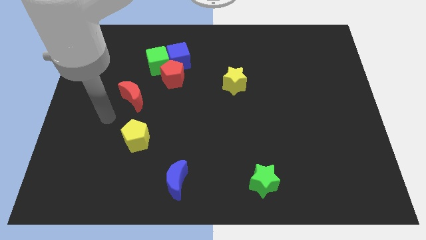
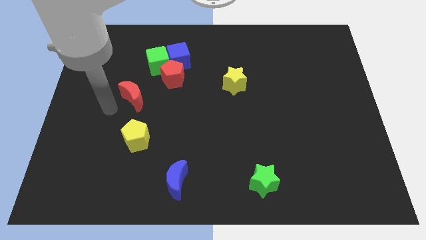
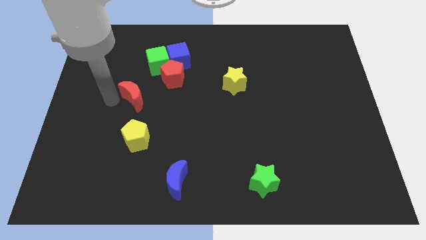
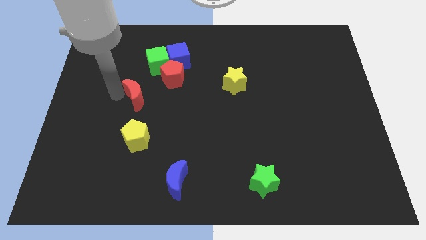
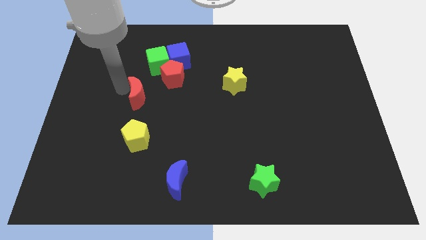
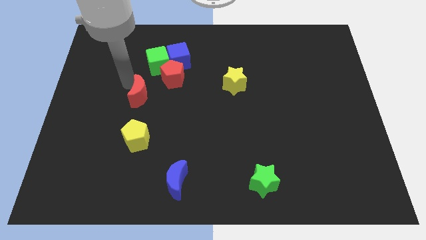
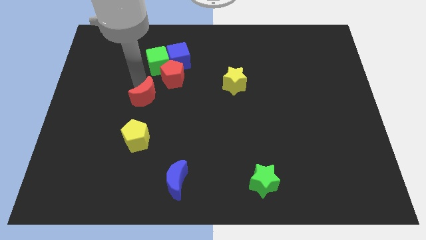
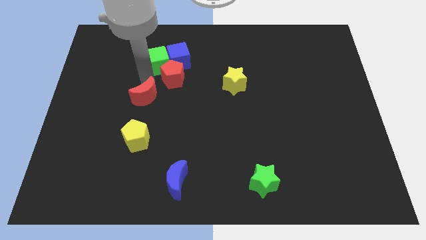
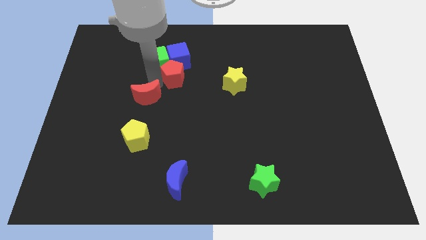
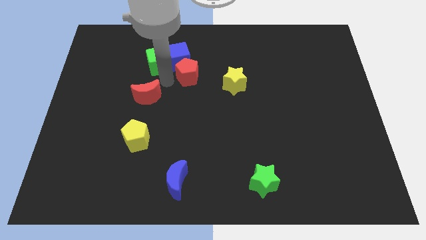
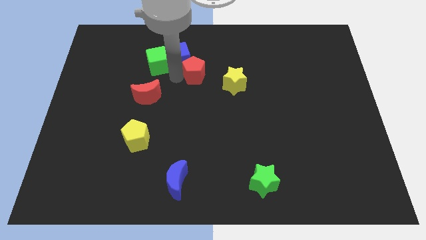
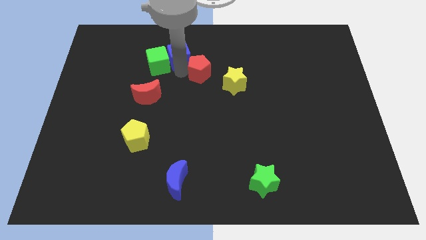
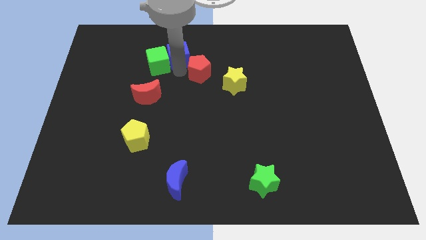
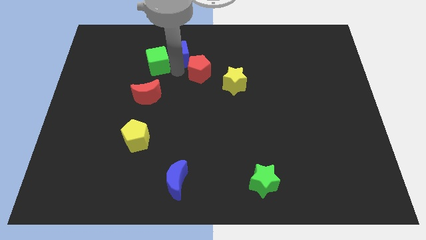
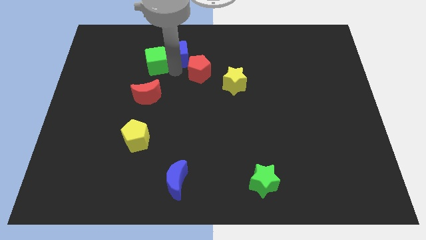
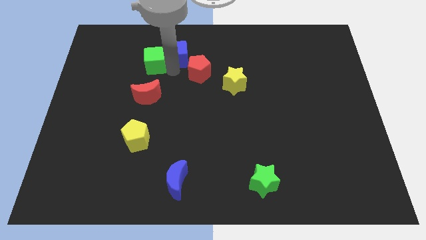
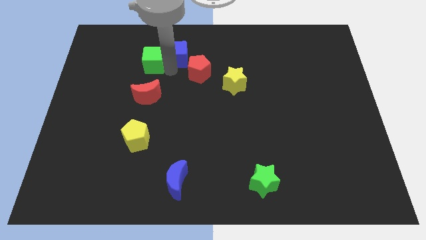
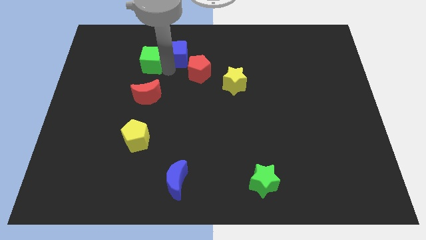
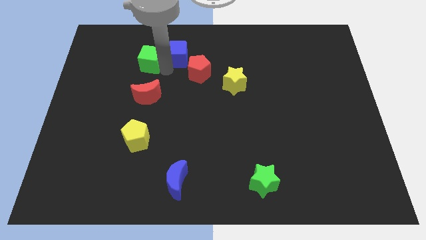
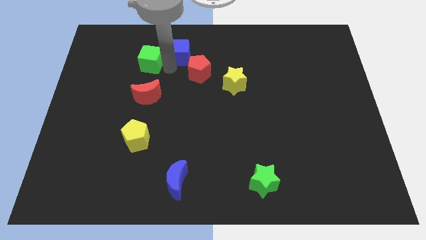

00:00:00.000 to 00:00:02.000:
pull the green cube apart from the blue cube and red pentagon

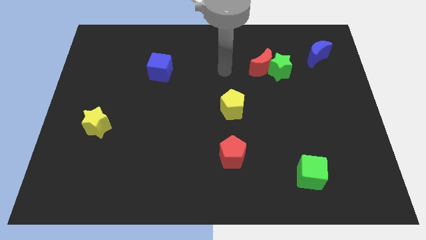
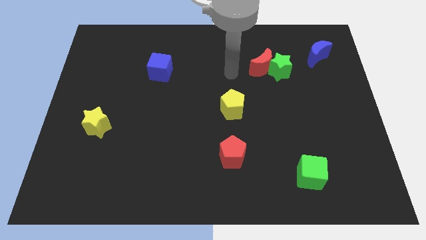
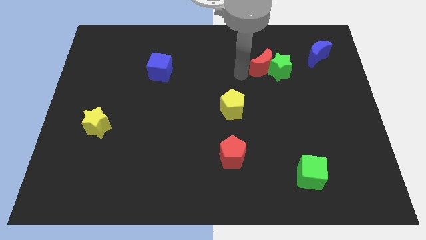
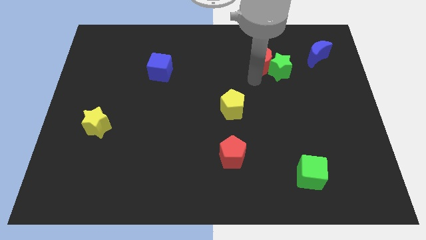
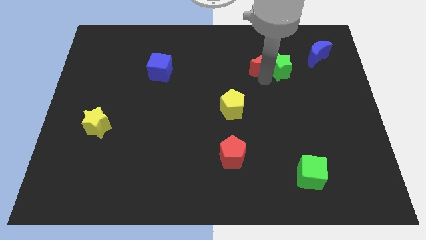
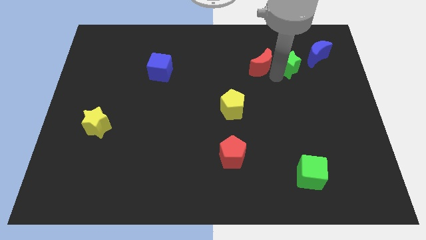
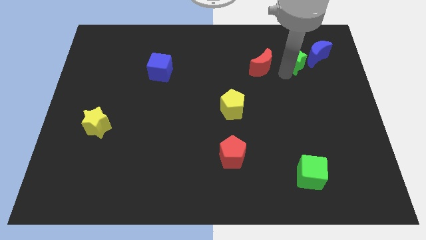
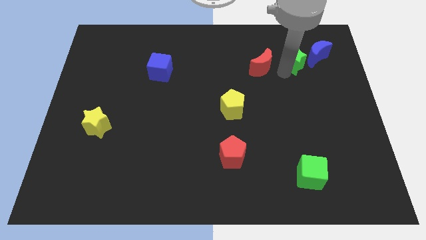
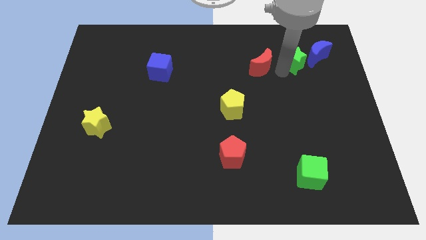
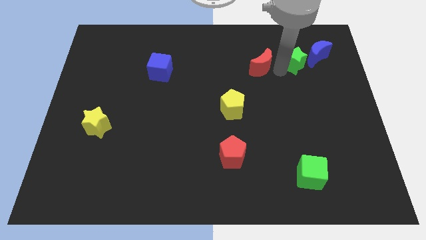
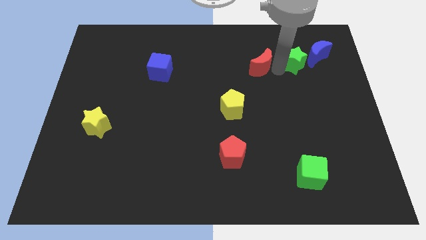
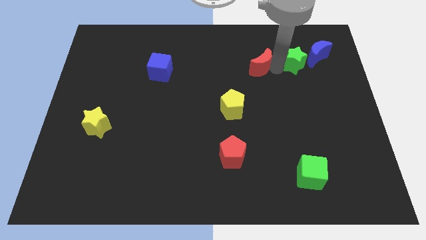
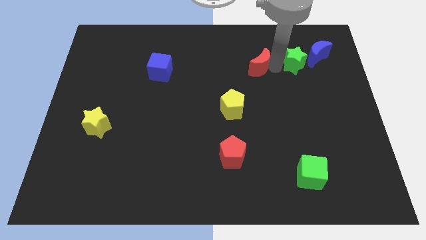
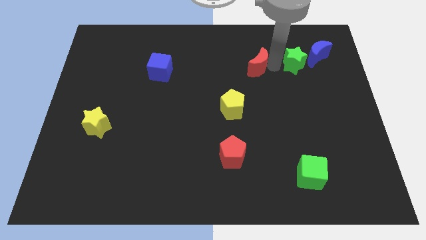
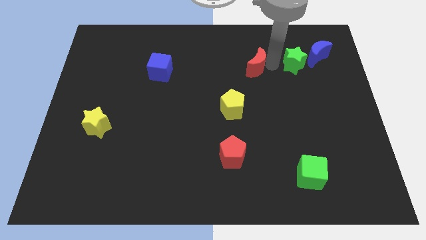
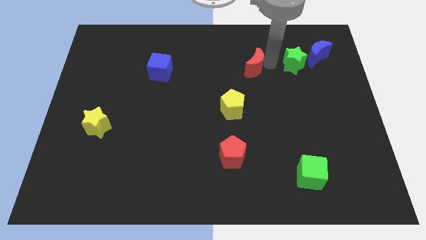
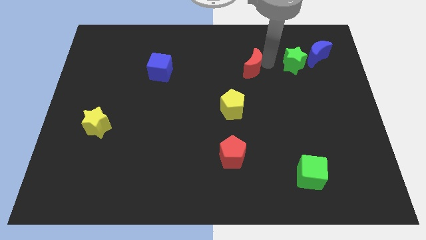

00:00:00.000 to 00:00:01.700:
move the red moon away from the green star

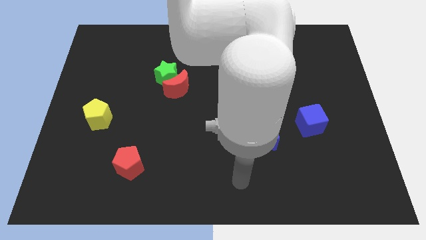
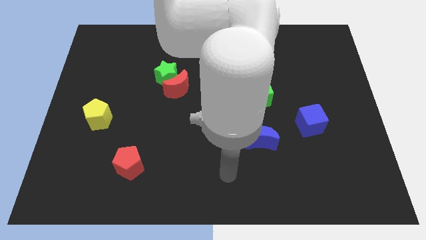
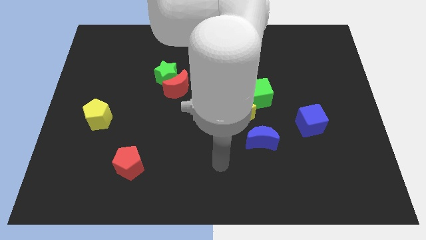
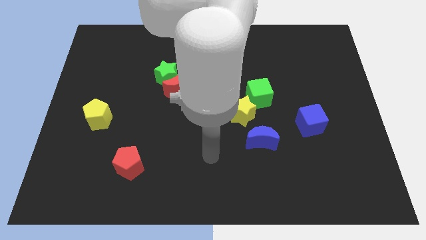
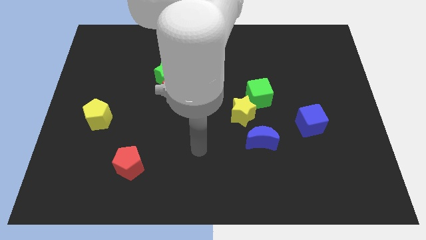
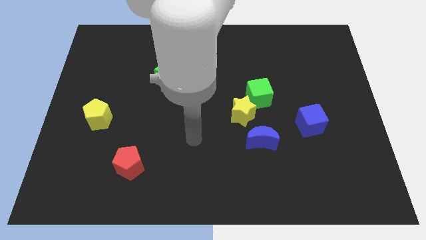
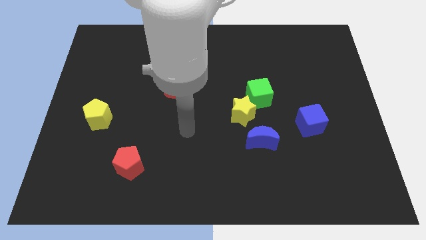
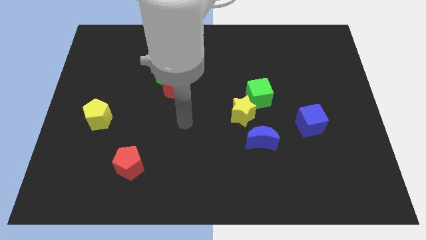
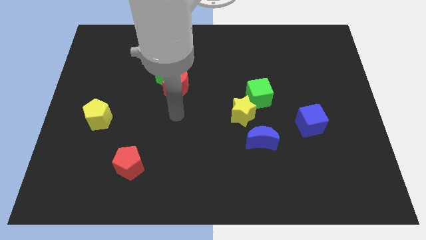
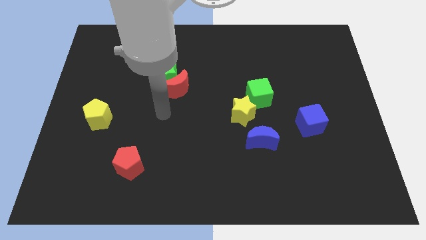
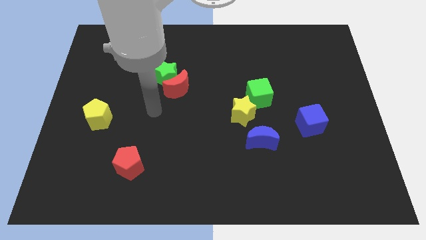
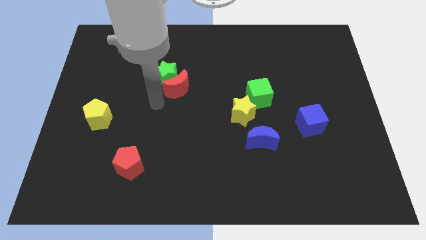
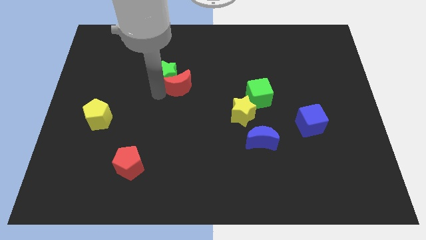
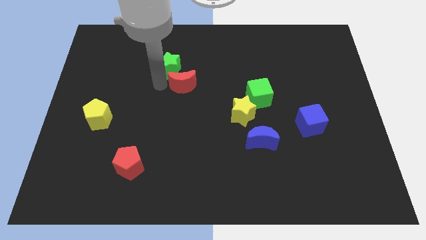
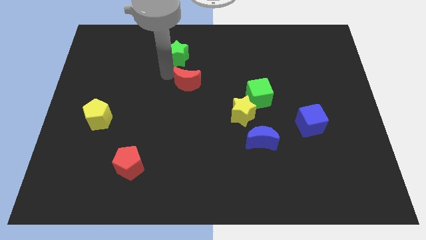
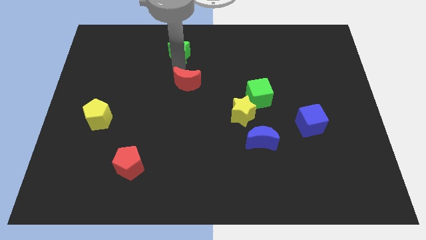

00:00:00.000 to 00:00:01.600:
pull the red moon apart from the green star

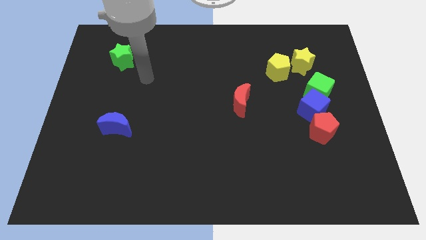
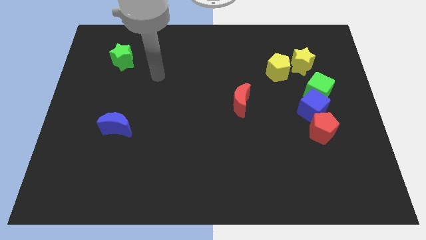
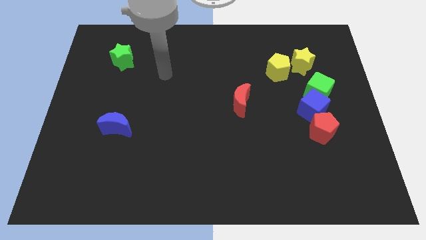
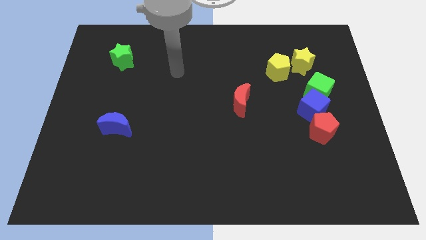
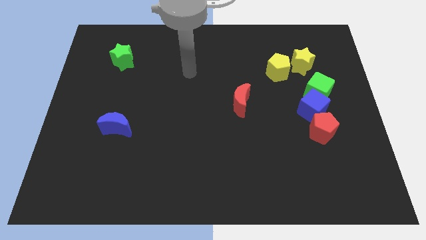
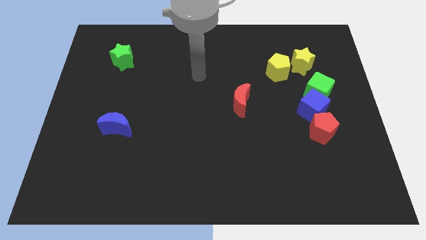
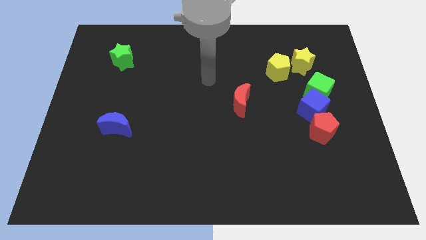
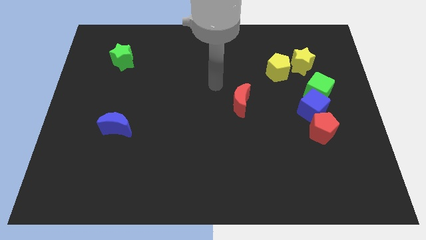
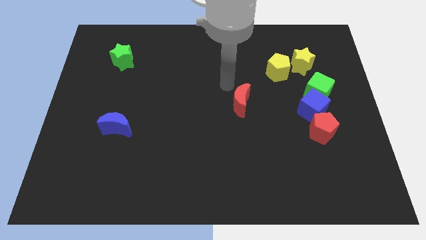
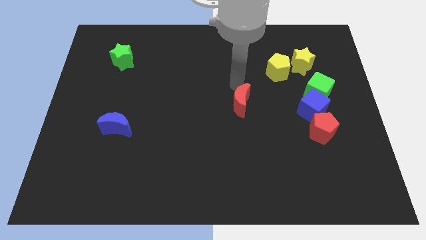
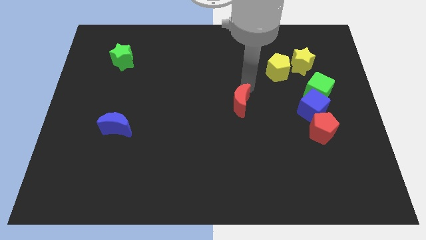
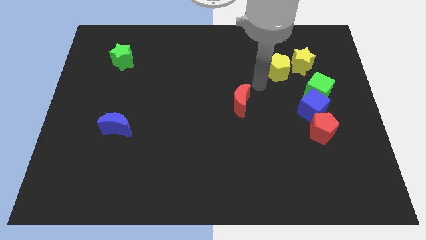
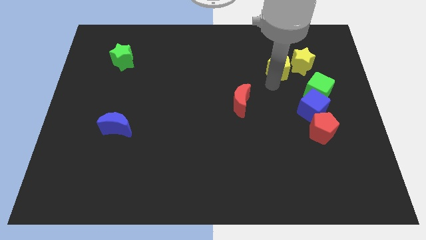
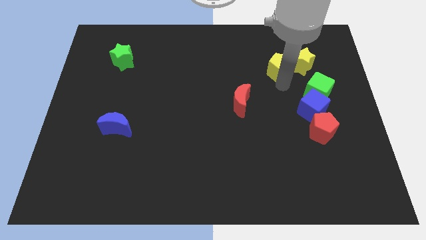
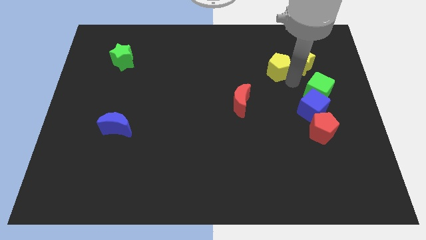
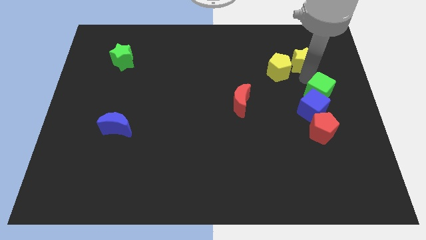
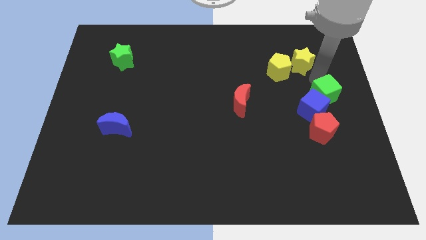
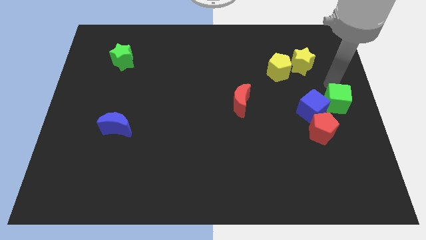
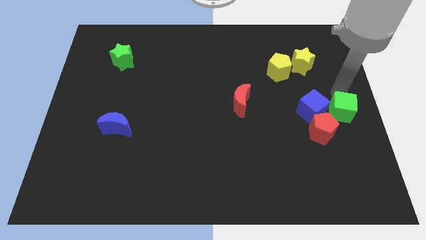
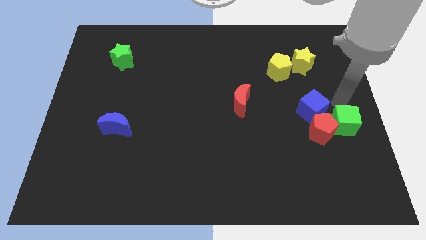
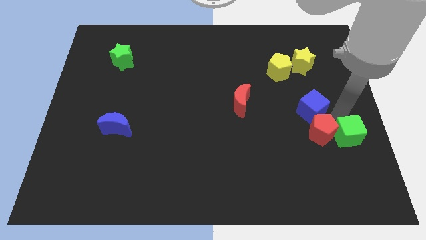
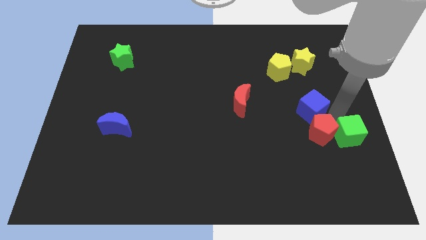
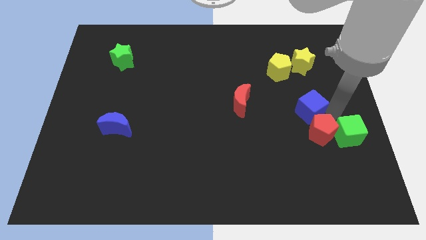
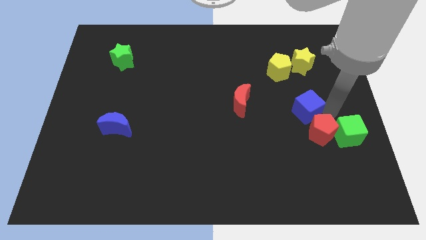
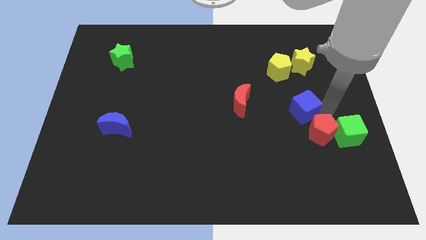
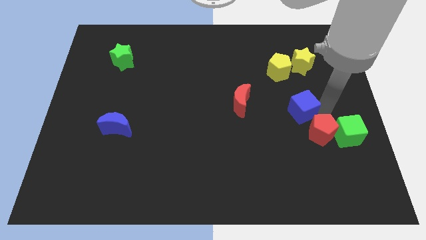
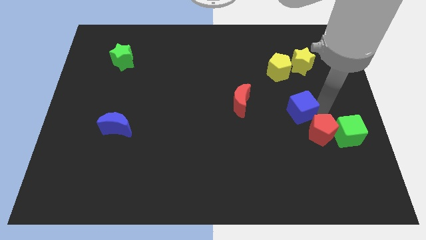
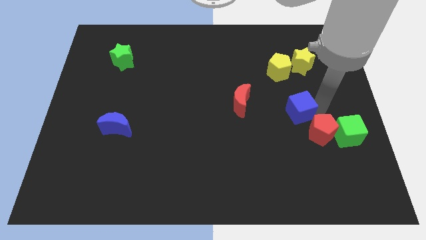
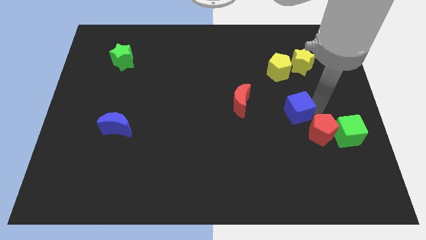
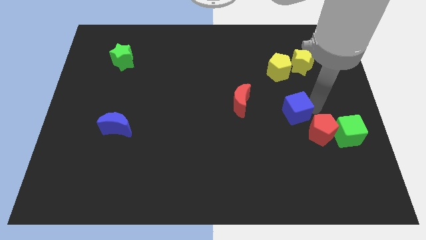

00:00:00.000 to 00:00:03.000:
pull the blue cube apart from the green cube and red pentagon

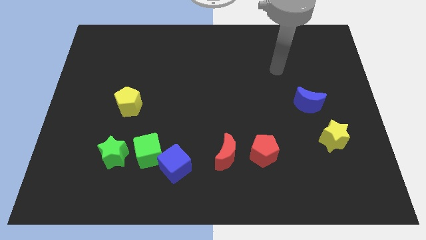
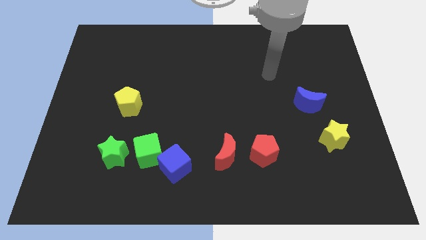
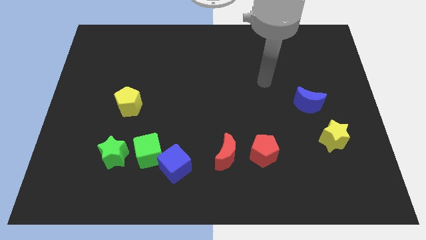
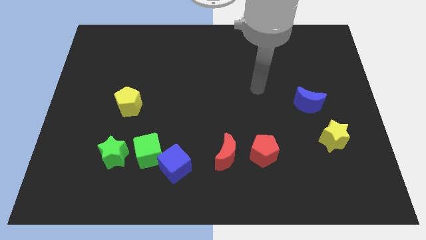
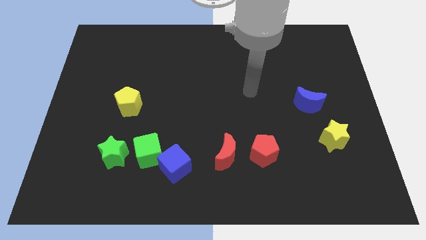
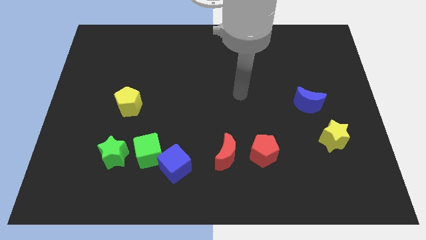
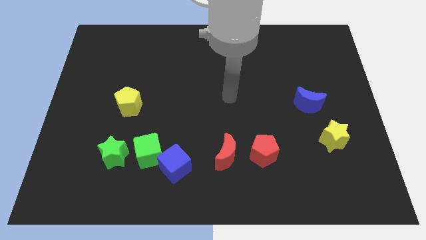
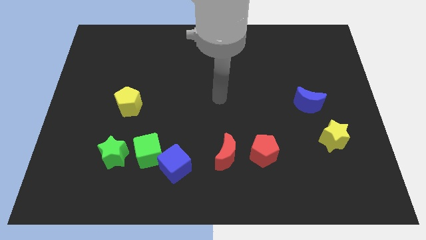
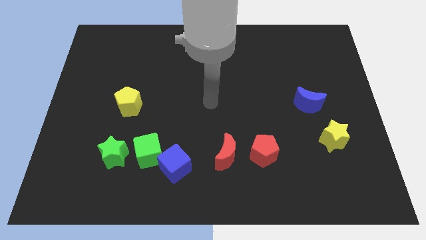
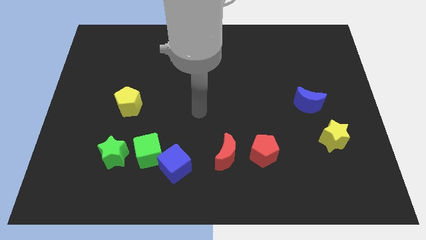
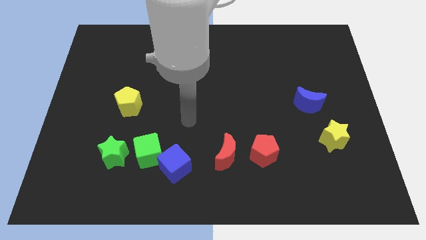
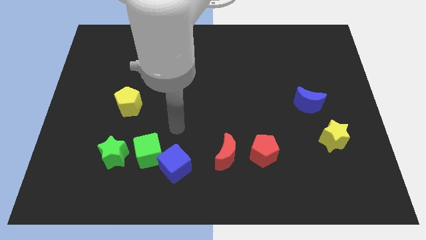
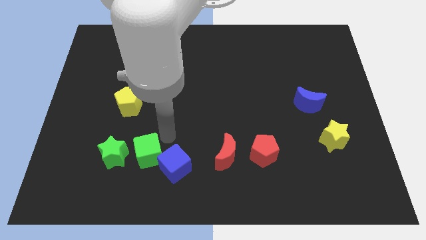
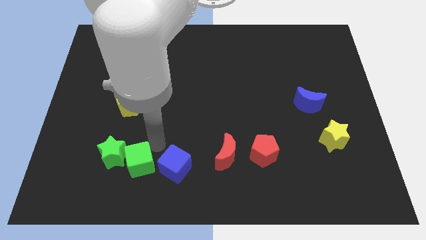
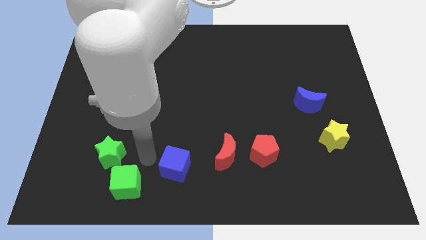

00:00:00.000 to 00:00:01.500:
move the blue cube away from the green cube
